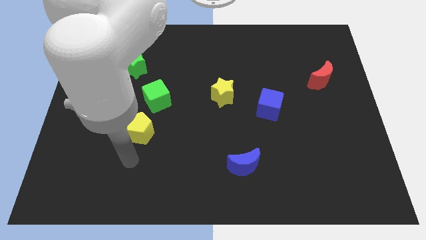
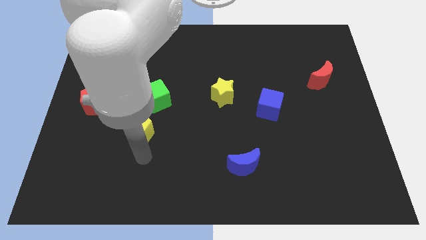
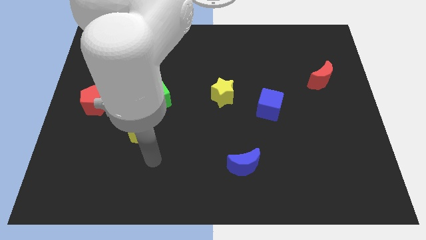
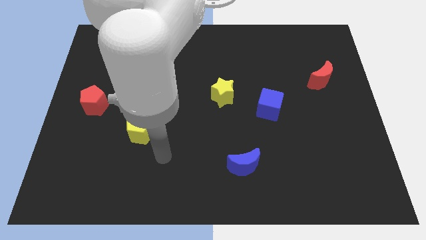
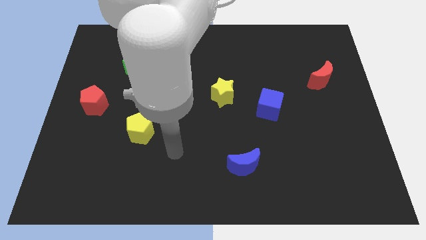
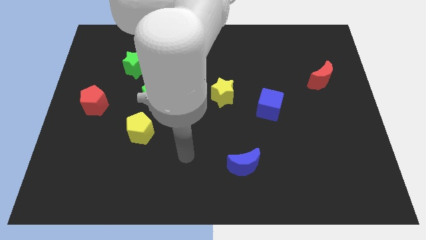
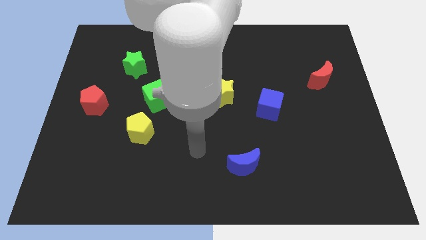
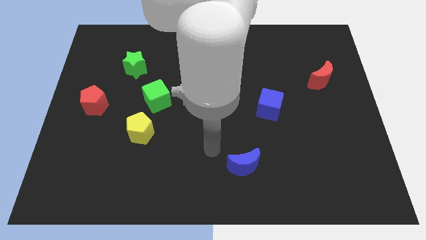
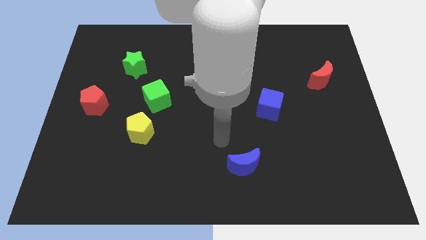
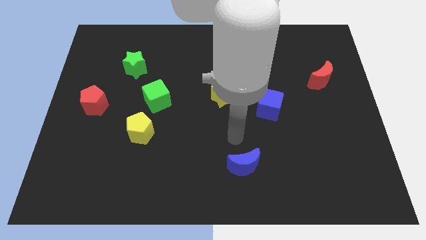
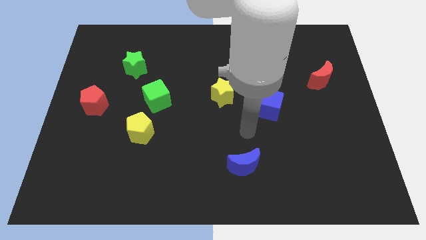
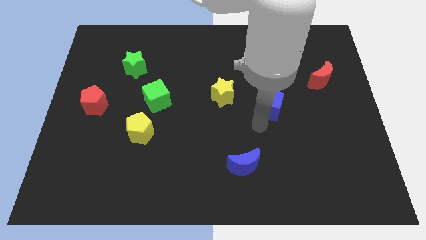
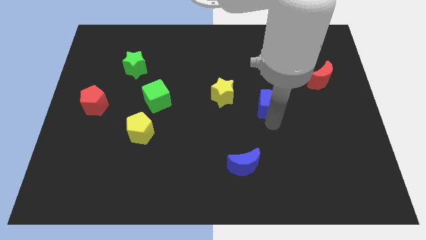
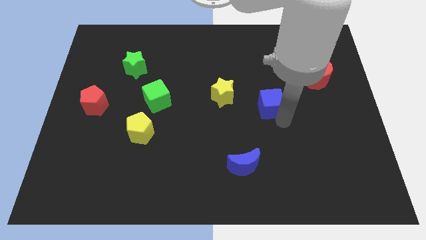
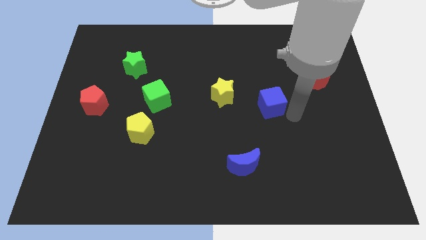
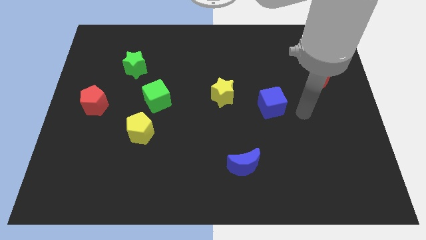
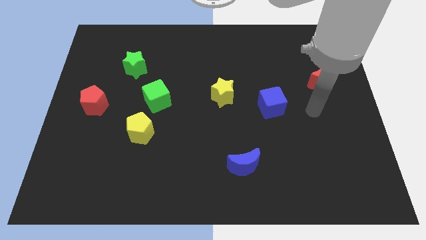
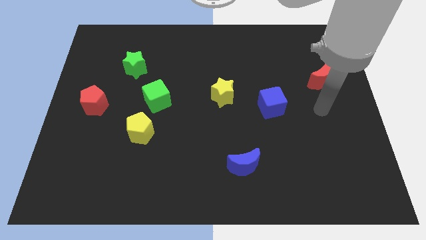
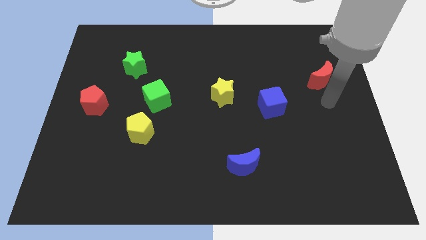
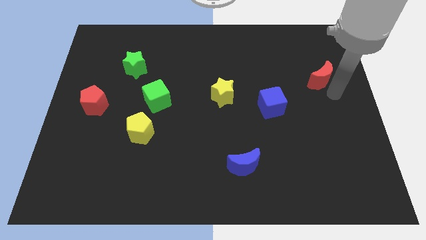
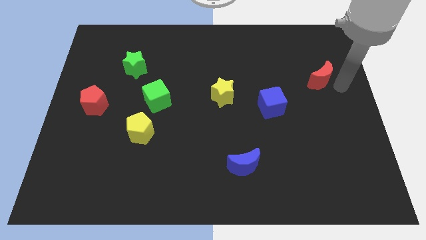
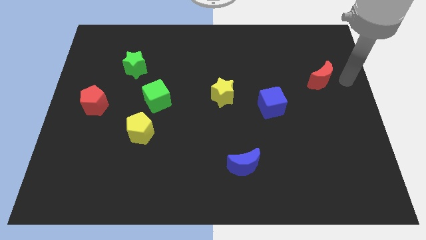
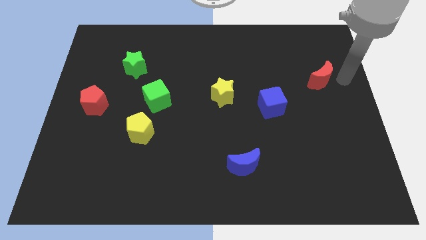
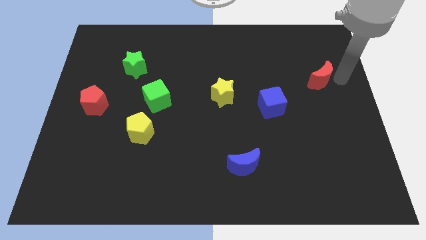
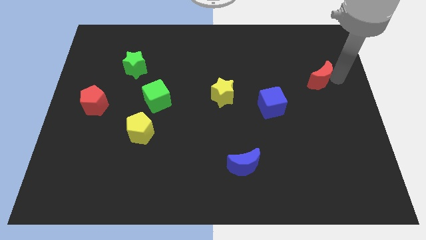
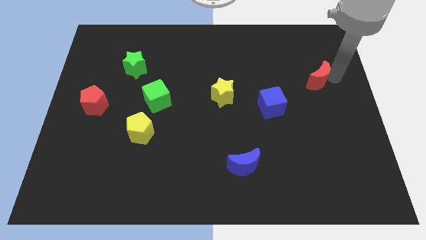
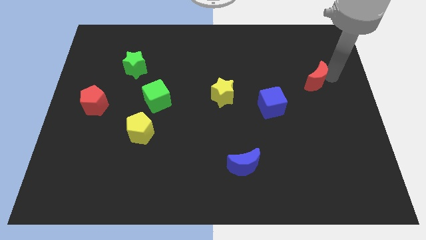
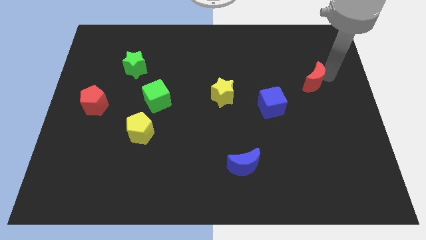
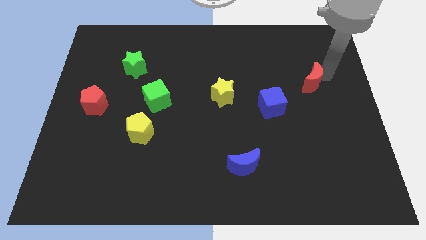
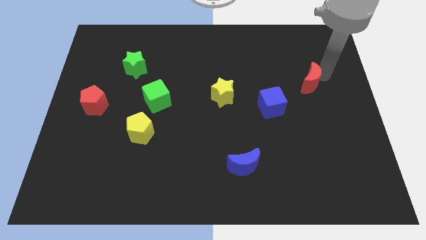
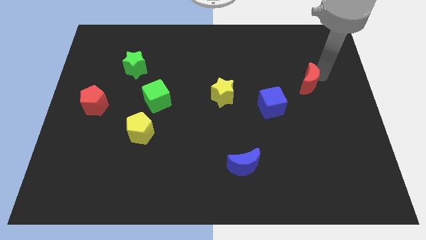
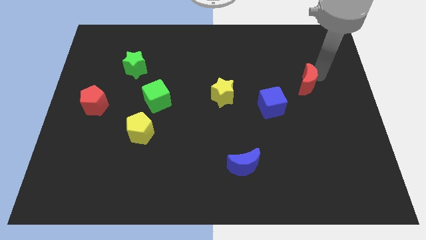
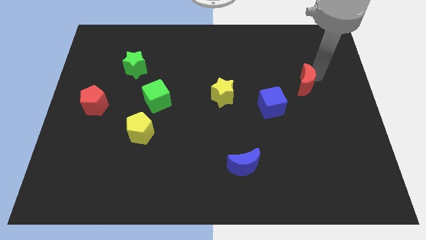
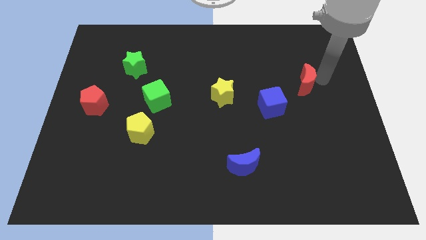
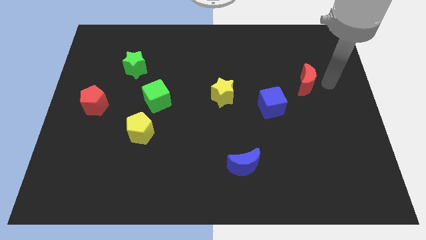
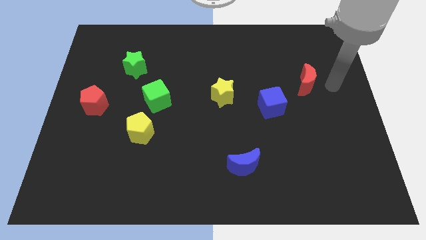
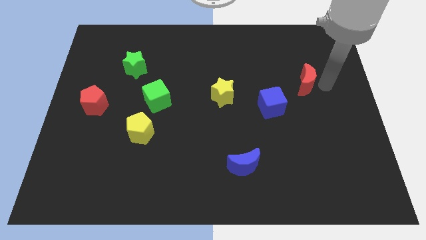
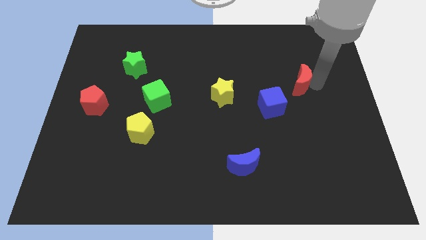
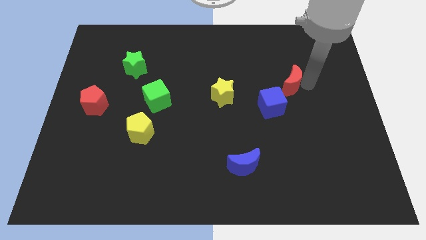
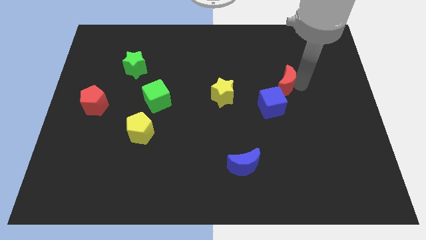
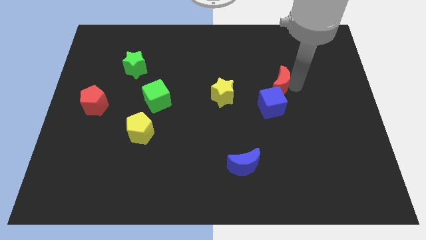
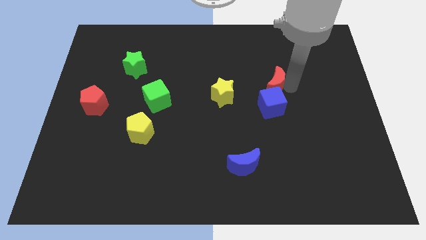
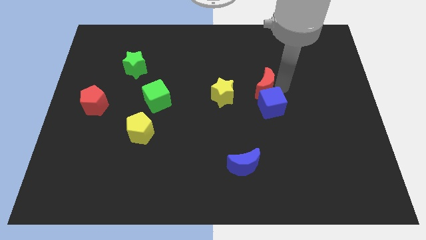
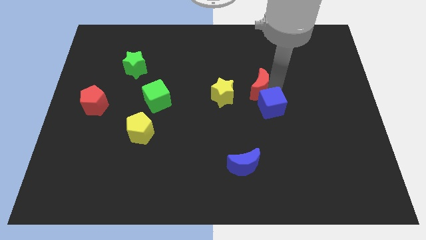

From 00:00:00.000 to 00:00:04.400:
put the red moon diagonally up and to the right of the yellow star

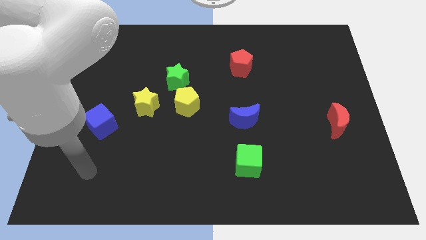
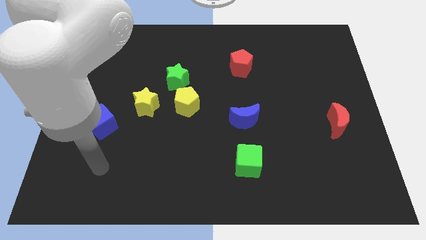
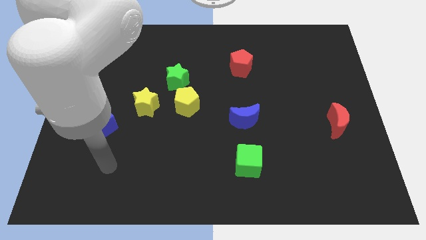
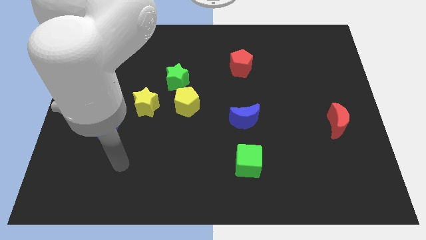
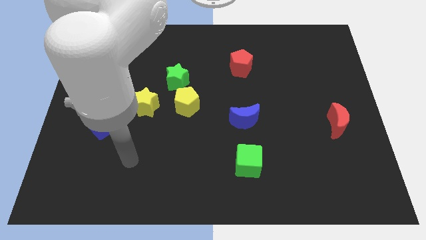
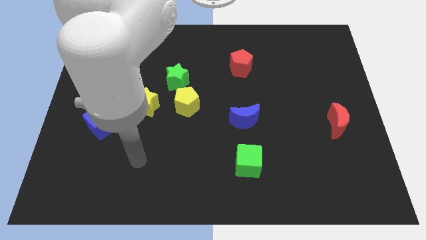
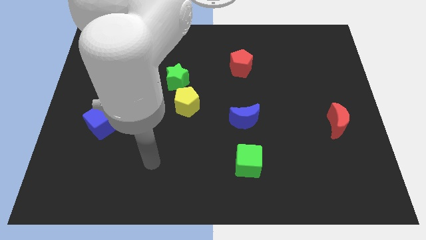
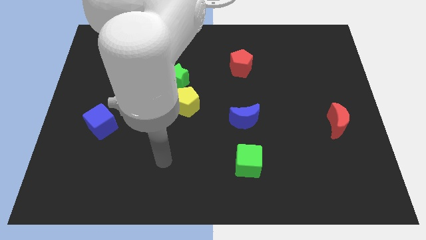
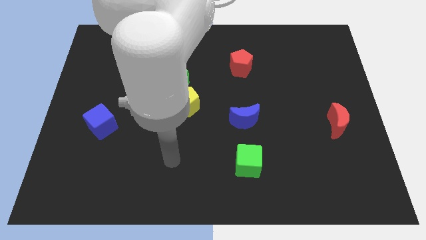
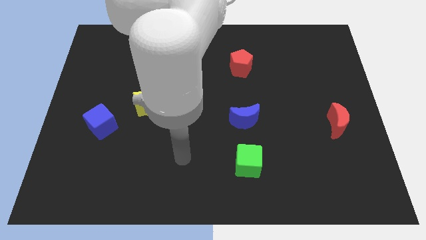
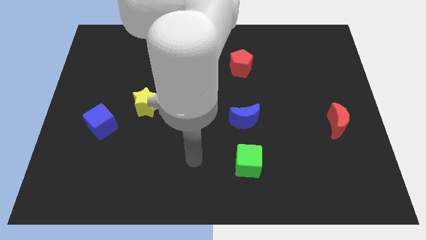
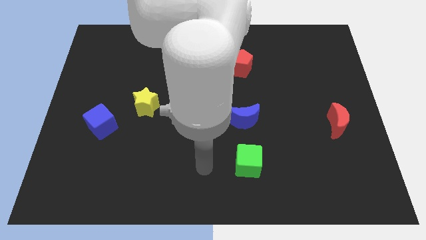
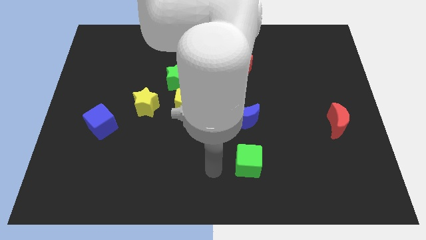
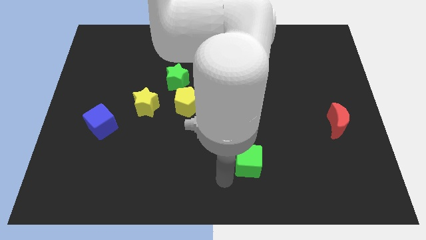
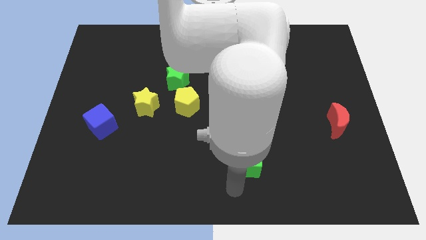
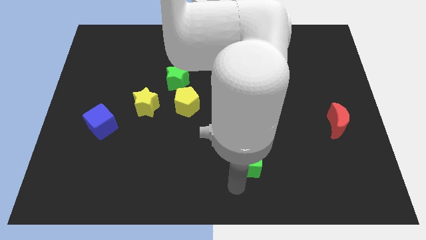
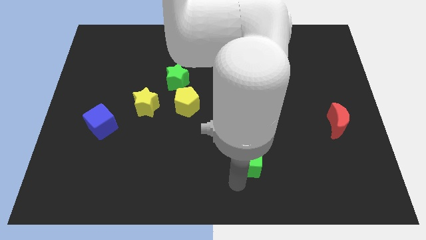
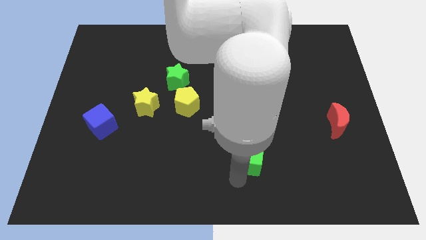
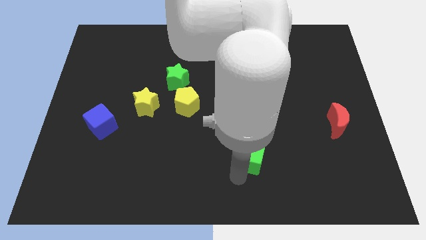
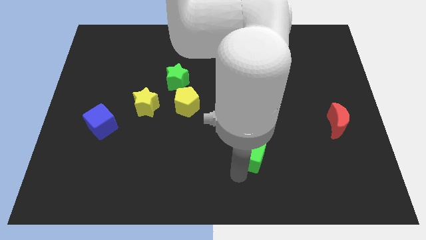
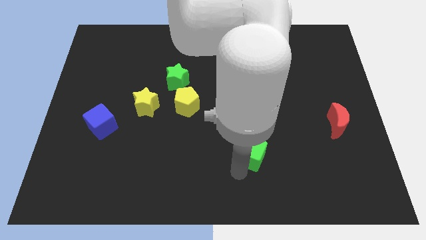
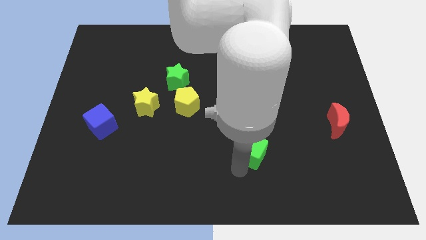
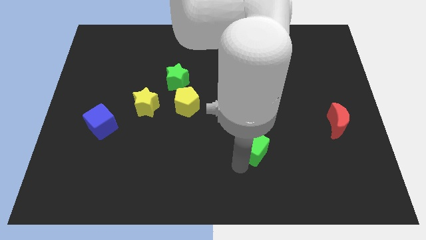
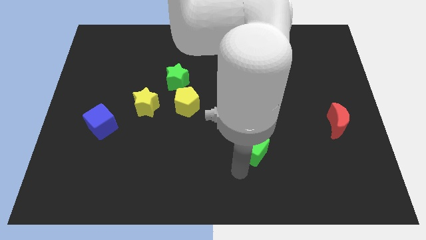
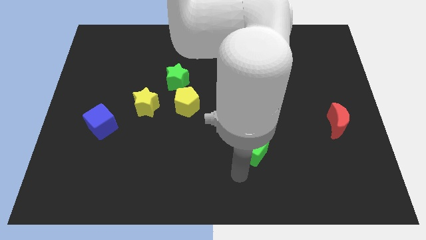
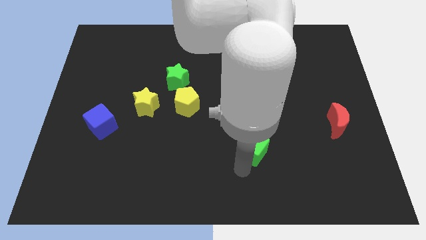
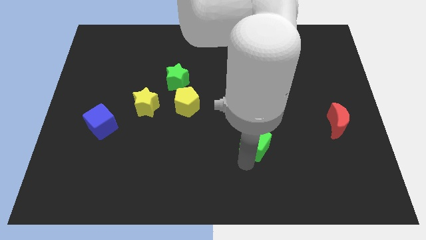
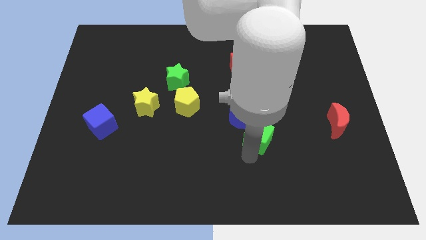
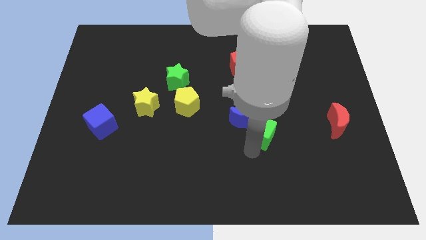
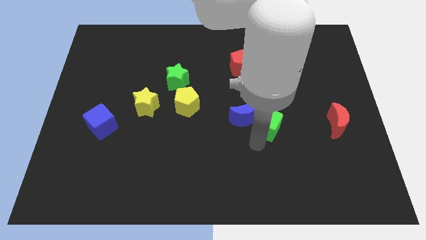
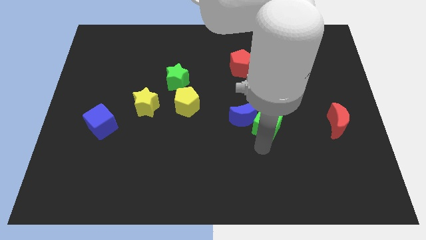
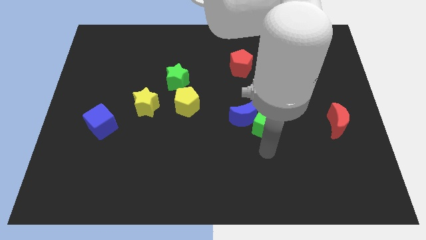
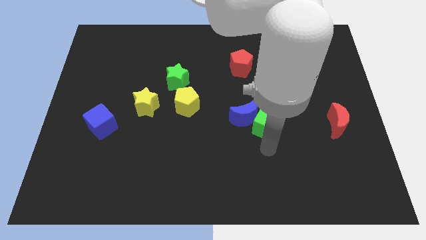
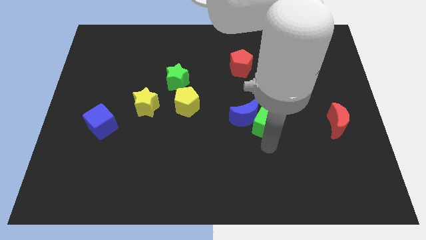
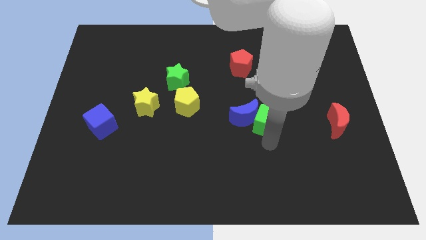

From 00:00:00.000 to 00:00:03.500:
slide the green cube to the top right of the blue moon
